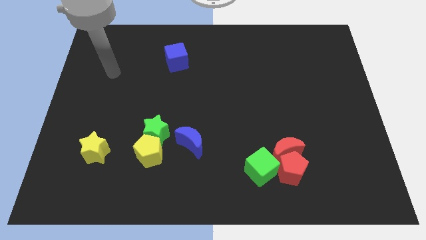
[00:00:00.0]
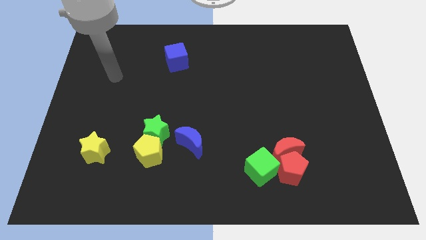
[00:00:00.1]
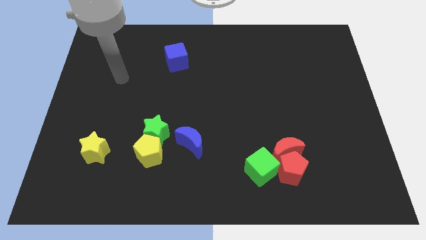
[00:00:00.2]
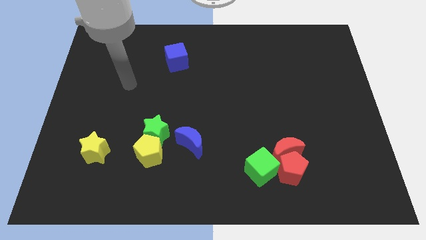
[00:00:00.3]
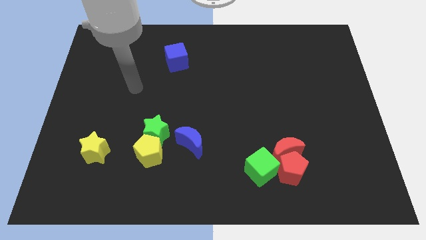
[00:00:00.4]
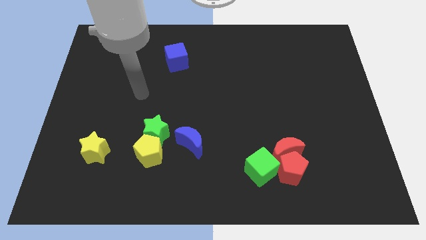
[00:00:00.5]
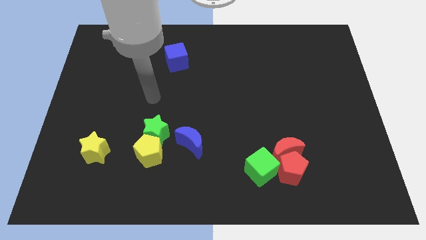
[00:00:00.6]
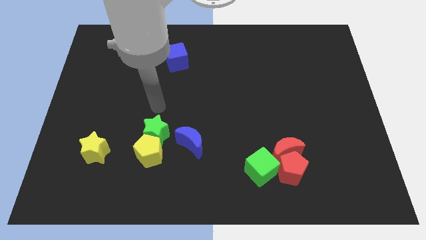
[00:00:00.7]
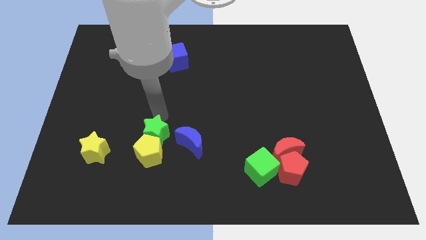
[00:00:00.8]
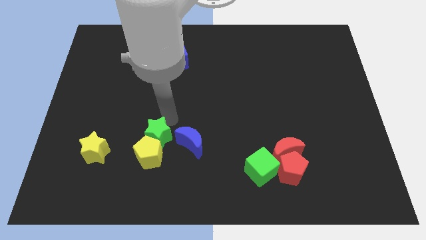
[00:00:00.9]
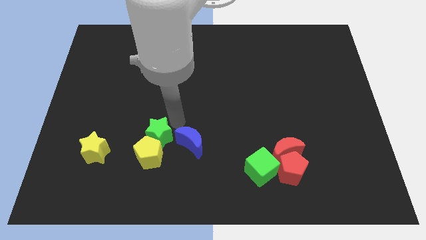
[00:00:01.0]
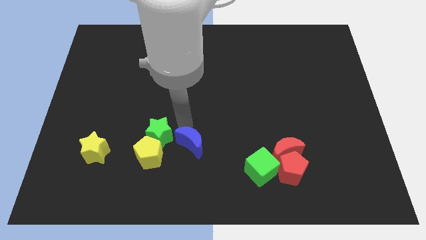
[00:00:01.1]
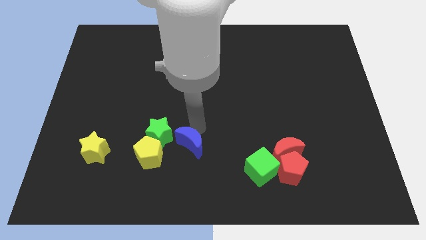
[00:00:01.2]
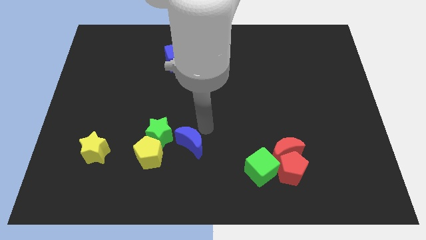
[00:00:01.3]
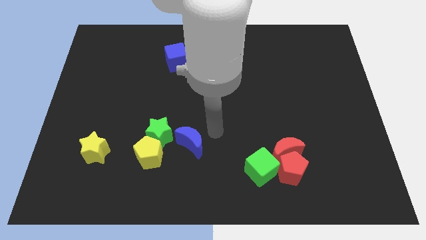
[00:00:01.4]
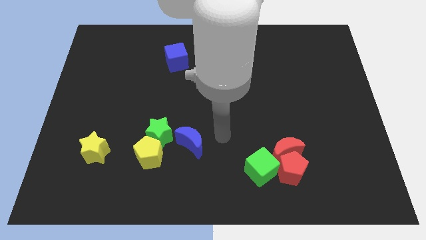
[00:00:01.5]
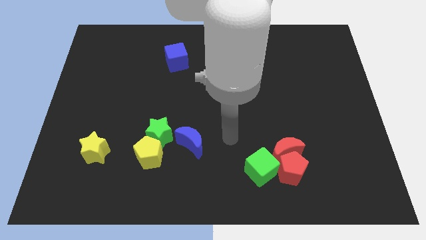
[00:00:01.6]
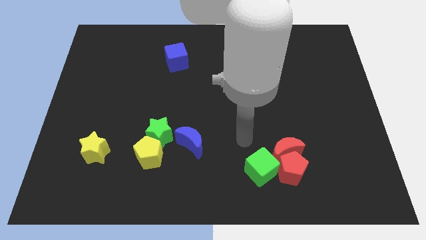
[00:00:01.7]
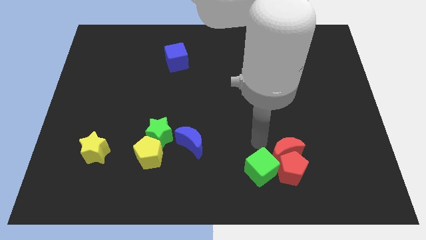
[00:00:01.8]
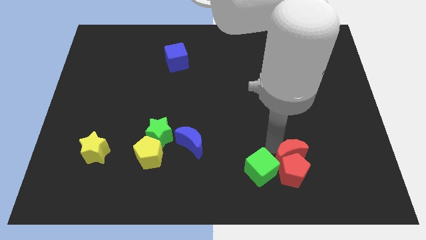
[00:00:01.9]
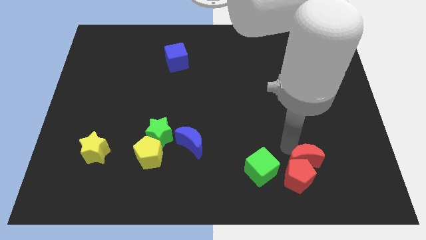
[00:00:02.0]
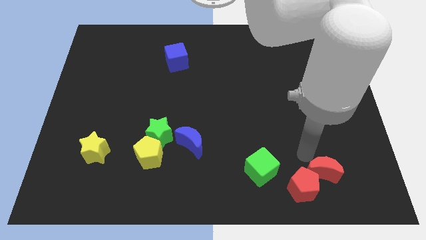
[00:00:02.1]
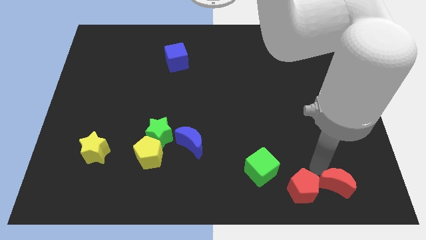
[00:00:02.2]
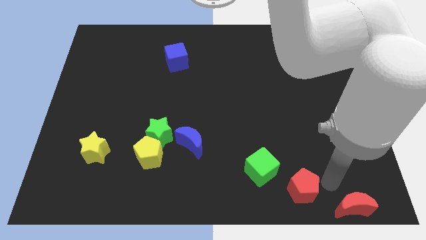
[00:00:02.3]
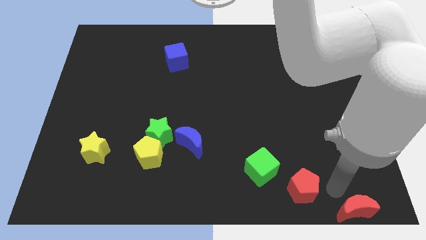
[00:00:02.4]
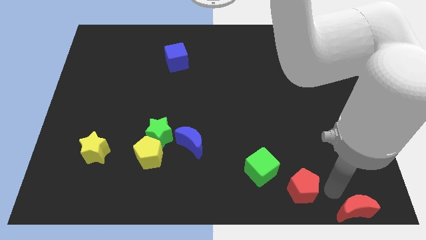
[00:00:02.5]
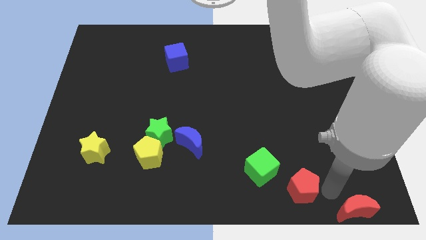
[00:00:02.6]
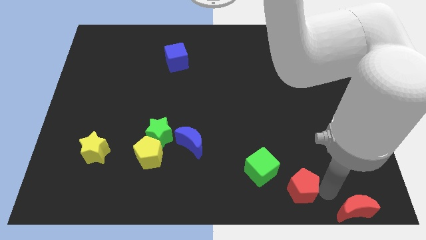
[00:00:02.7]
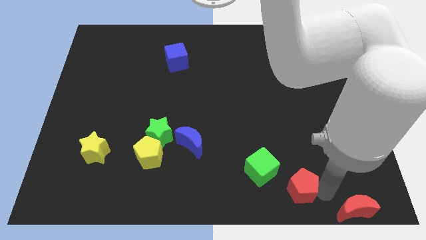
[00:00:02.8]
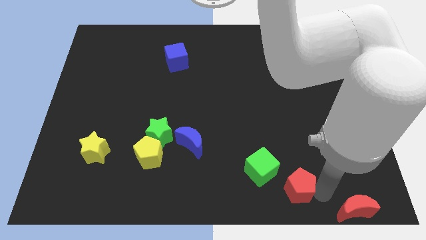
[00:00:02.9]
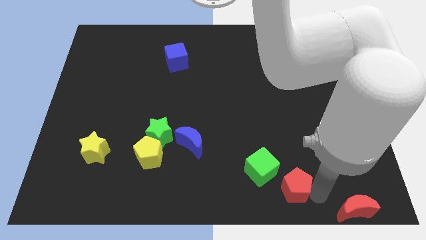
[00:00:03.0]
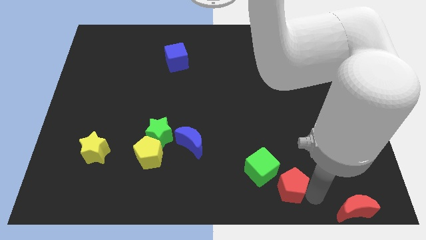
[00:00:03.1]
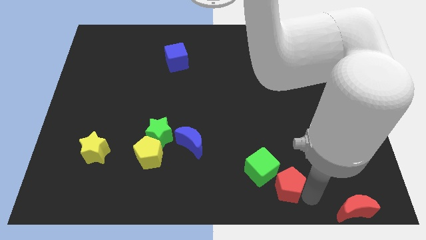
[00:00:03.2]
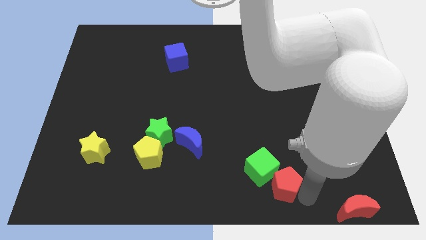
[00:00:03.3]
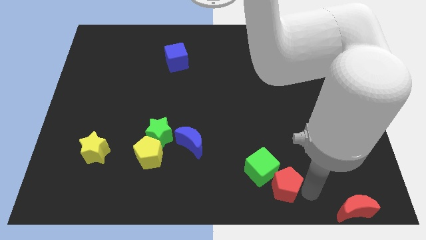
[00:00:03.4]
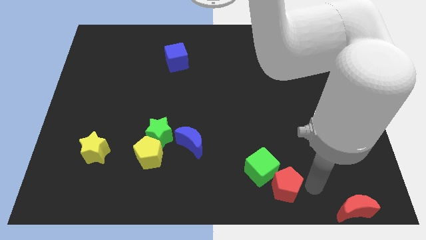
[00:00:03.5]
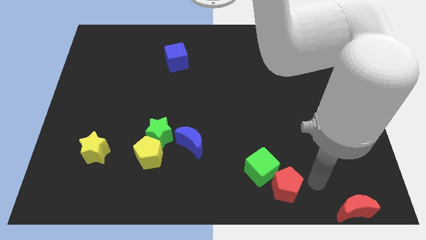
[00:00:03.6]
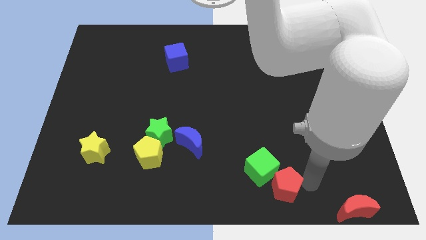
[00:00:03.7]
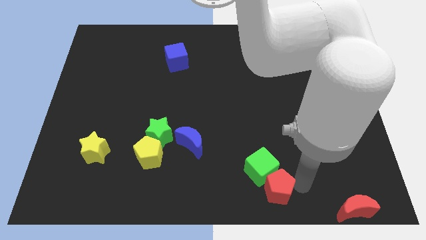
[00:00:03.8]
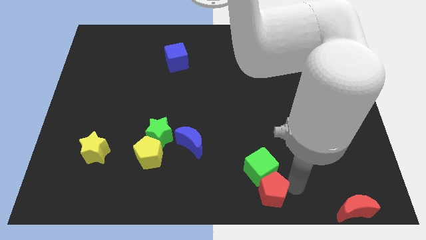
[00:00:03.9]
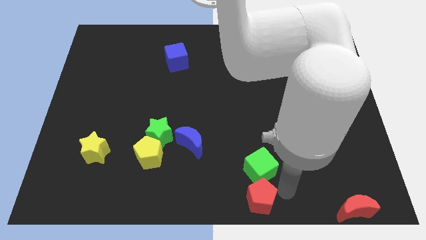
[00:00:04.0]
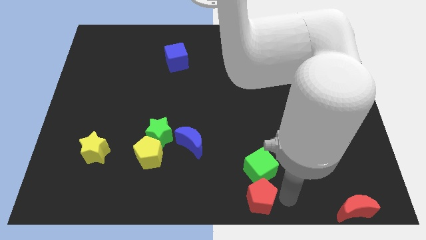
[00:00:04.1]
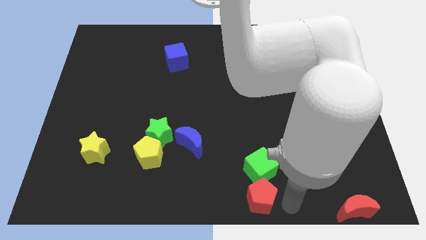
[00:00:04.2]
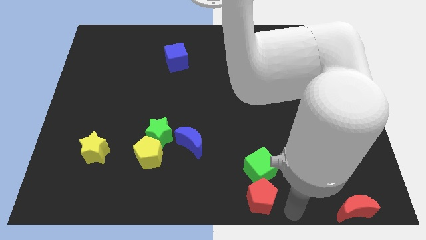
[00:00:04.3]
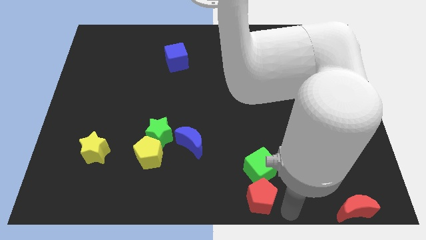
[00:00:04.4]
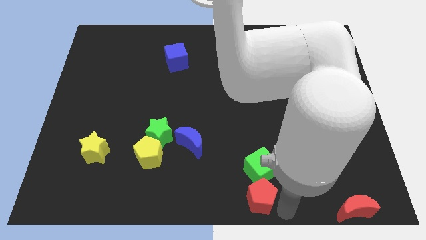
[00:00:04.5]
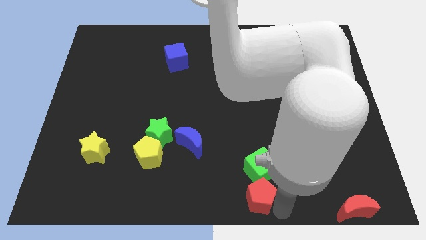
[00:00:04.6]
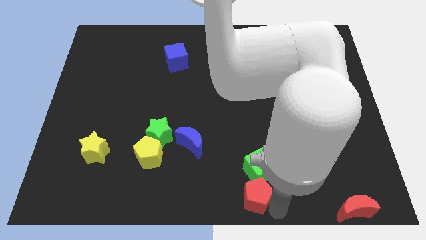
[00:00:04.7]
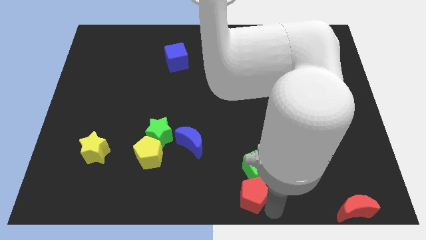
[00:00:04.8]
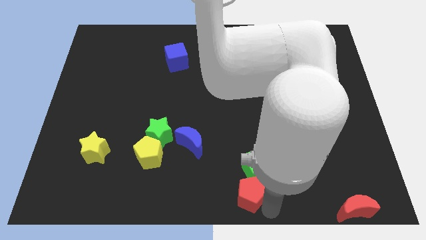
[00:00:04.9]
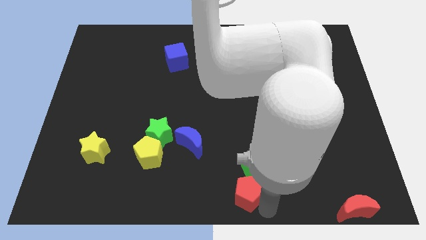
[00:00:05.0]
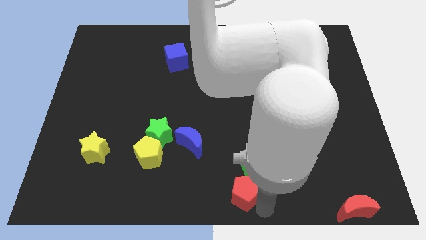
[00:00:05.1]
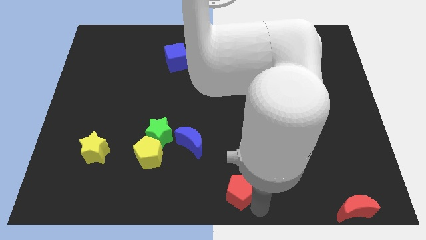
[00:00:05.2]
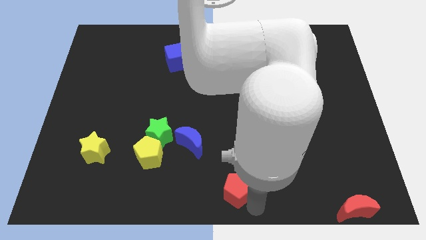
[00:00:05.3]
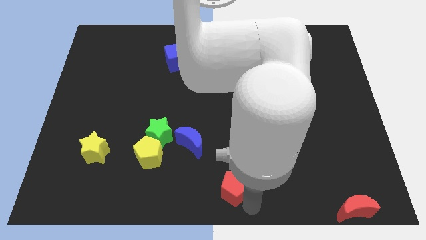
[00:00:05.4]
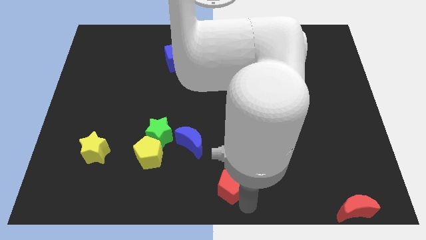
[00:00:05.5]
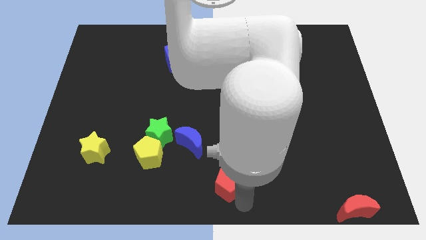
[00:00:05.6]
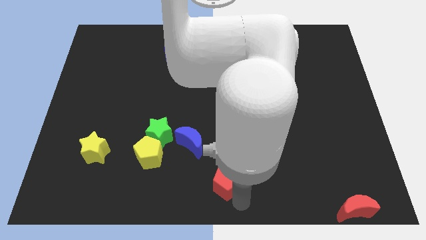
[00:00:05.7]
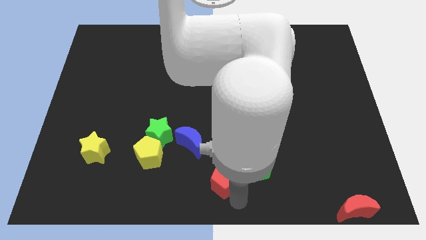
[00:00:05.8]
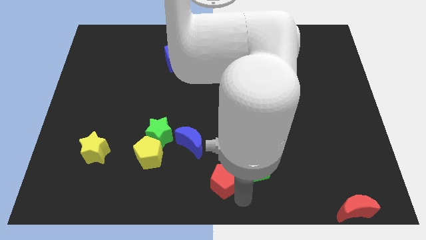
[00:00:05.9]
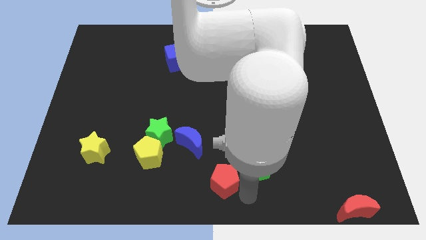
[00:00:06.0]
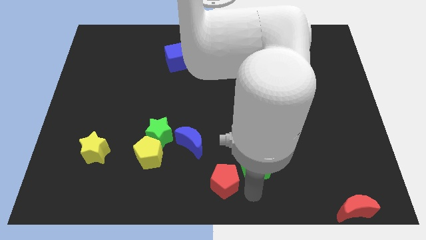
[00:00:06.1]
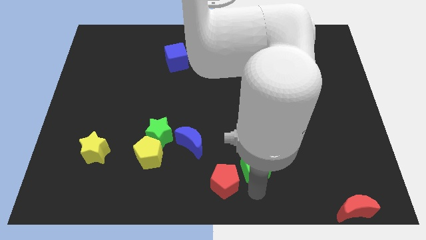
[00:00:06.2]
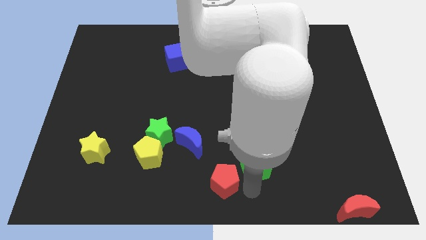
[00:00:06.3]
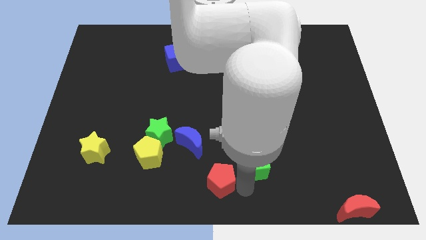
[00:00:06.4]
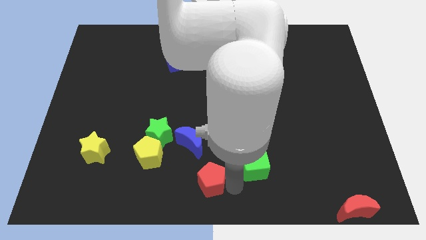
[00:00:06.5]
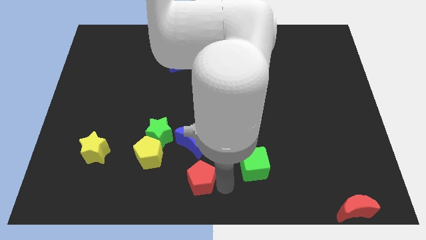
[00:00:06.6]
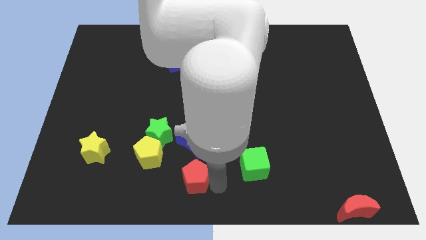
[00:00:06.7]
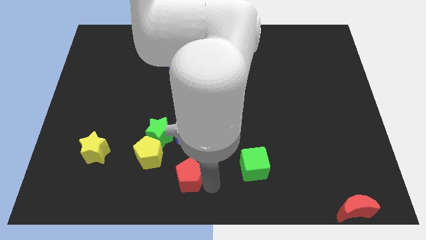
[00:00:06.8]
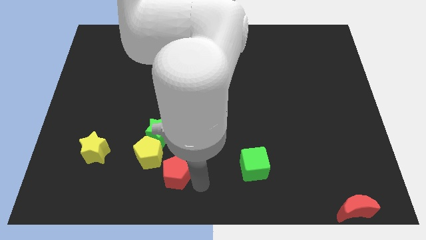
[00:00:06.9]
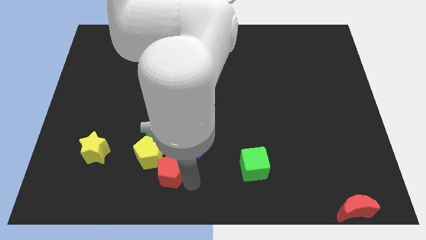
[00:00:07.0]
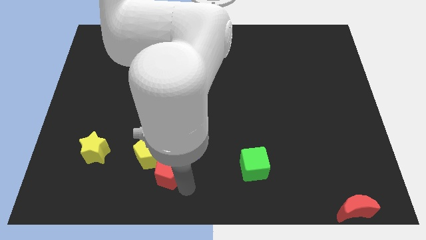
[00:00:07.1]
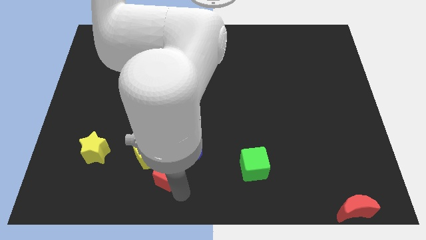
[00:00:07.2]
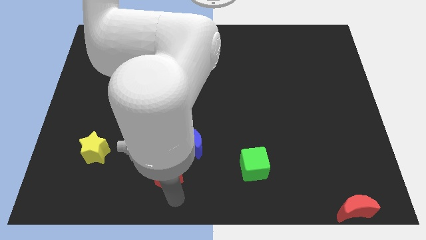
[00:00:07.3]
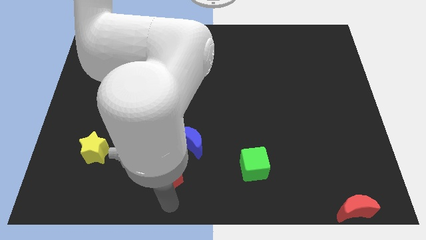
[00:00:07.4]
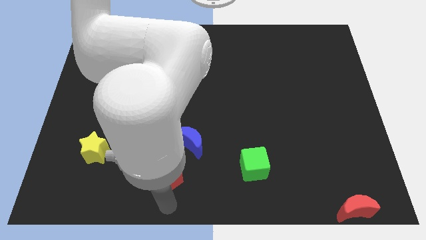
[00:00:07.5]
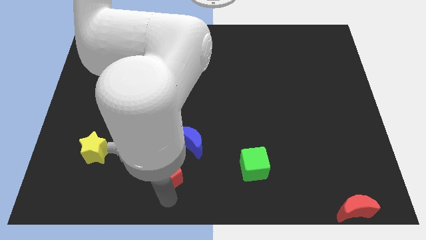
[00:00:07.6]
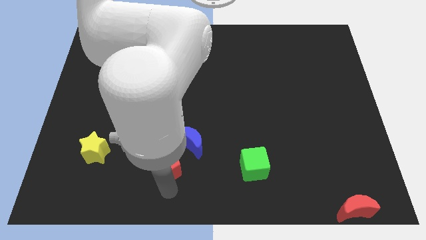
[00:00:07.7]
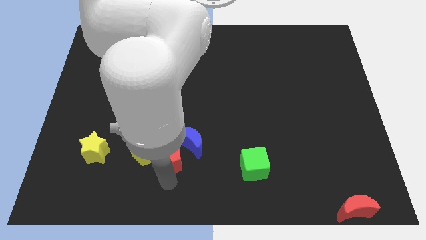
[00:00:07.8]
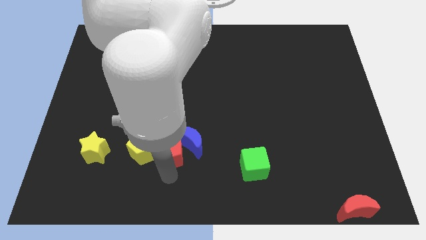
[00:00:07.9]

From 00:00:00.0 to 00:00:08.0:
slide the red pentagon close to the green star
